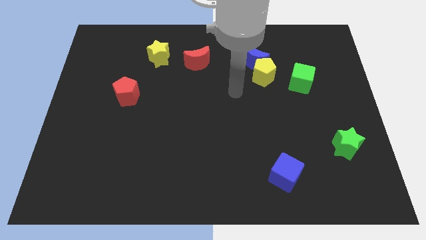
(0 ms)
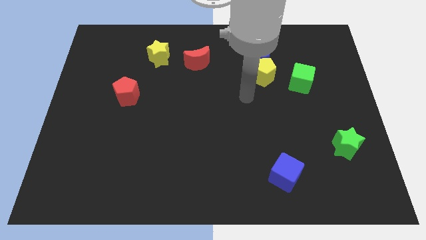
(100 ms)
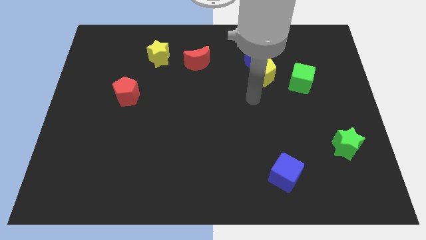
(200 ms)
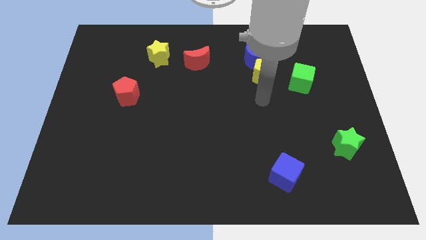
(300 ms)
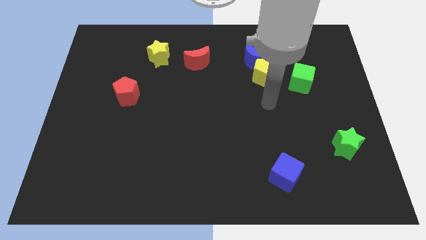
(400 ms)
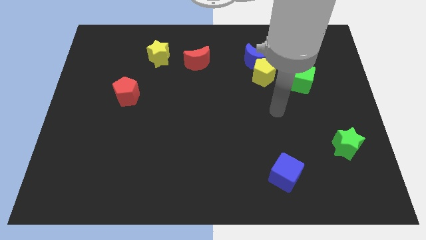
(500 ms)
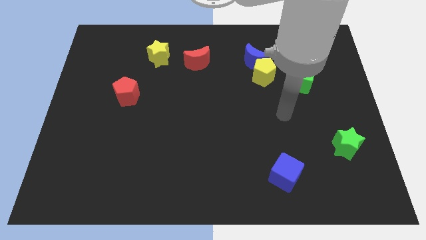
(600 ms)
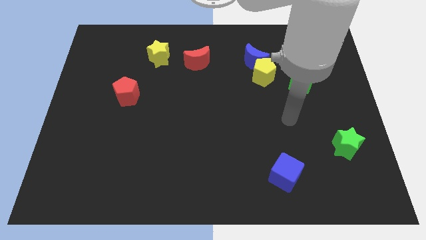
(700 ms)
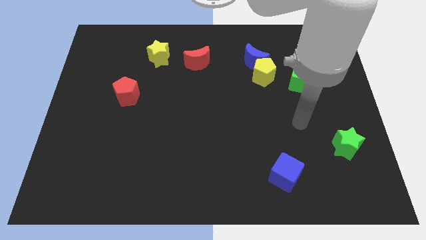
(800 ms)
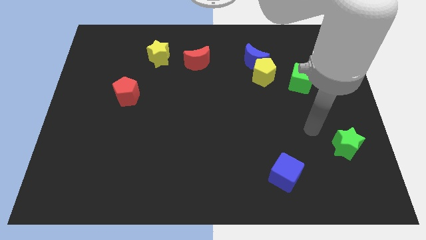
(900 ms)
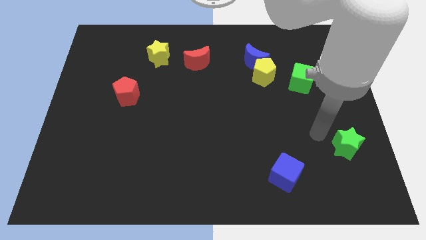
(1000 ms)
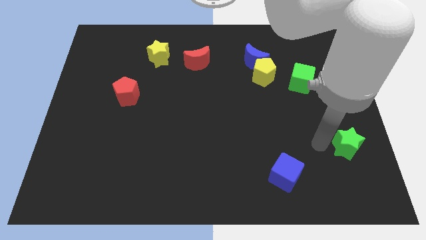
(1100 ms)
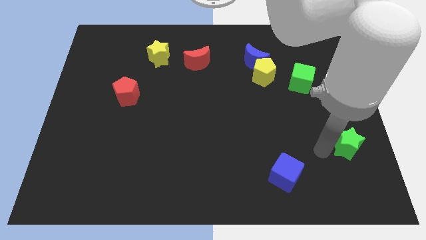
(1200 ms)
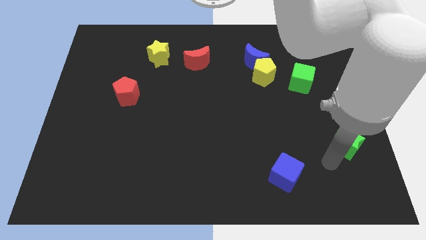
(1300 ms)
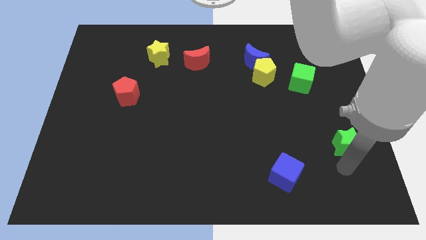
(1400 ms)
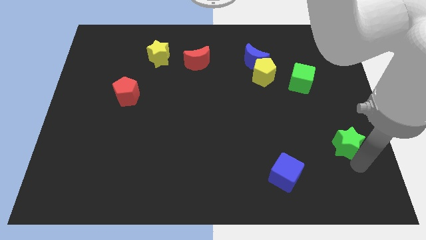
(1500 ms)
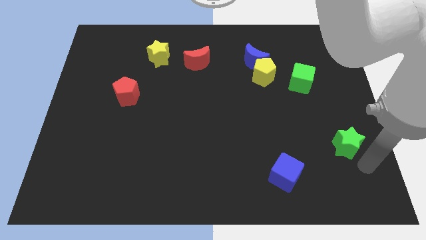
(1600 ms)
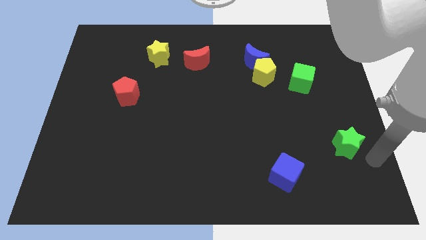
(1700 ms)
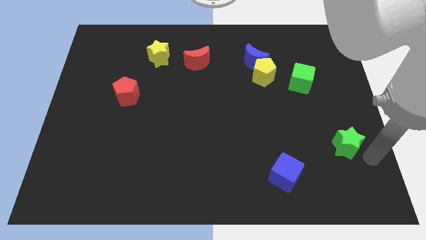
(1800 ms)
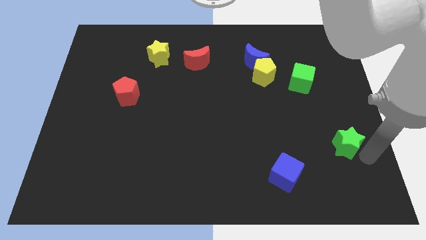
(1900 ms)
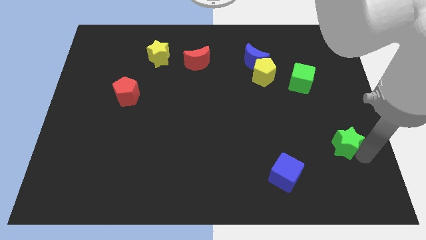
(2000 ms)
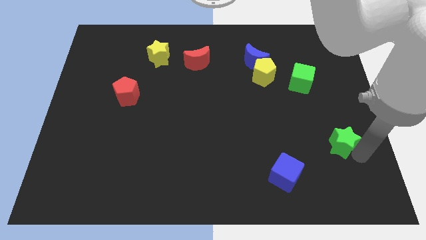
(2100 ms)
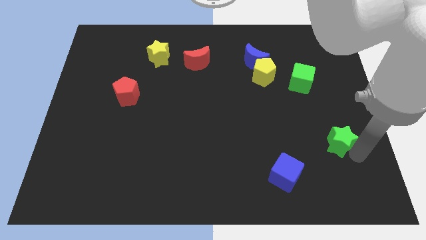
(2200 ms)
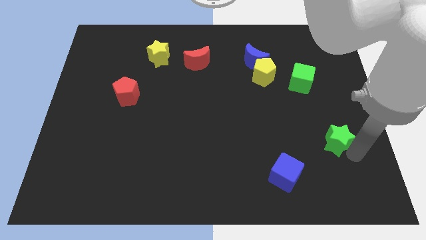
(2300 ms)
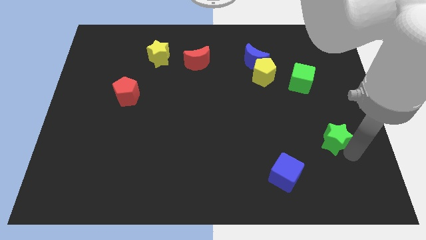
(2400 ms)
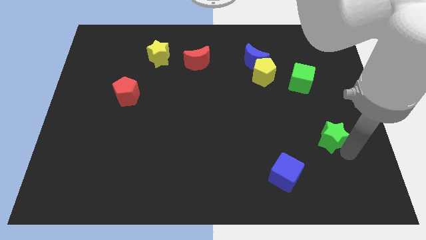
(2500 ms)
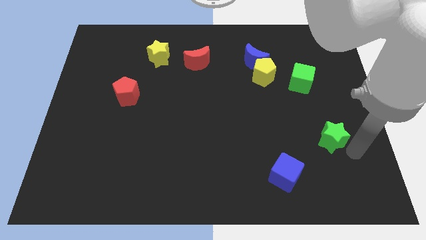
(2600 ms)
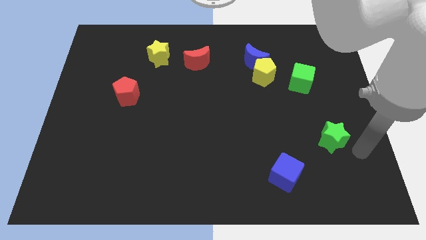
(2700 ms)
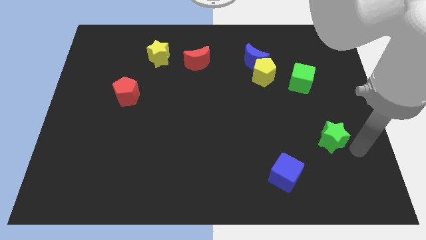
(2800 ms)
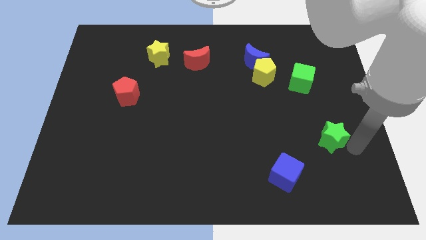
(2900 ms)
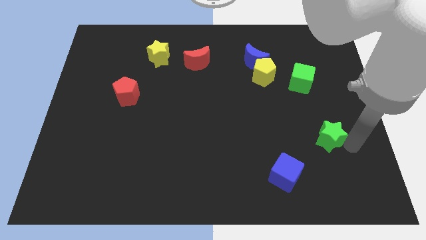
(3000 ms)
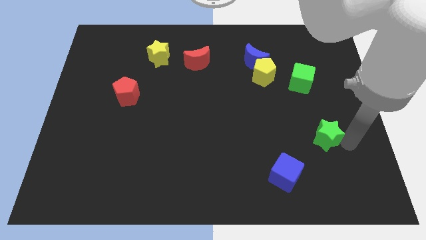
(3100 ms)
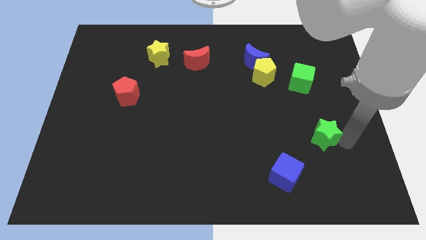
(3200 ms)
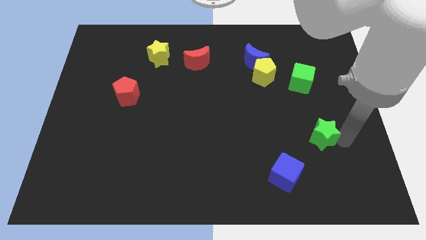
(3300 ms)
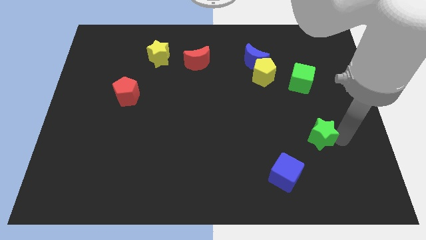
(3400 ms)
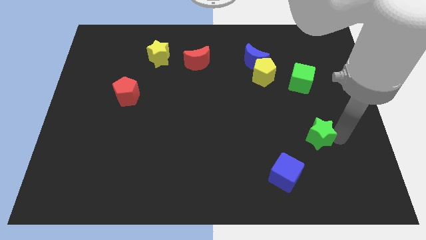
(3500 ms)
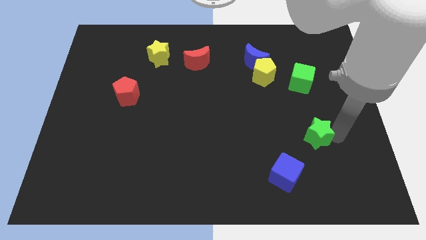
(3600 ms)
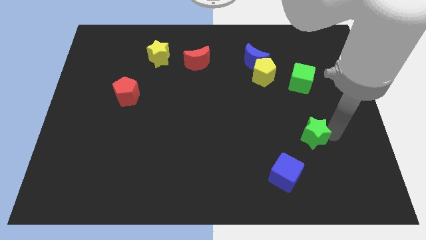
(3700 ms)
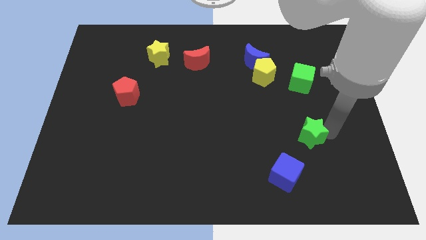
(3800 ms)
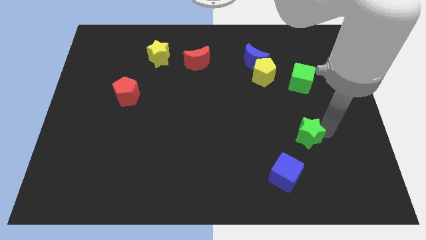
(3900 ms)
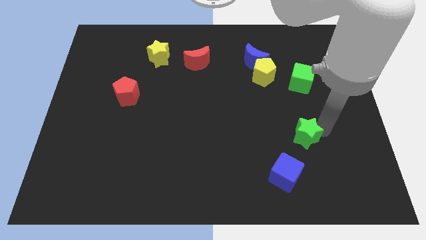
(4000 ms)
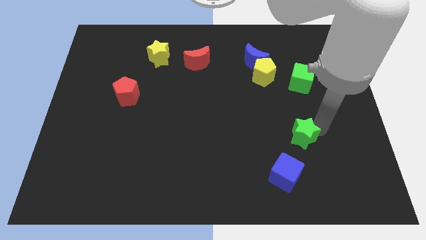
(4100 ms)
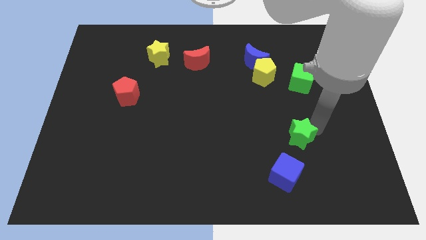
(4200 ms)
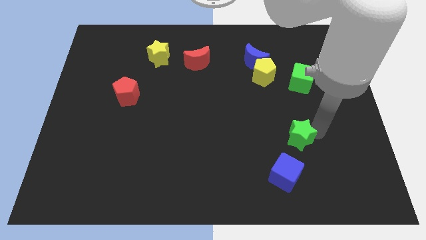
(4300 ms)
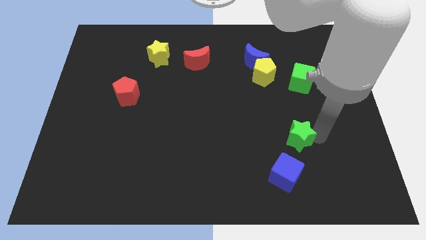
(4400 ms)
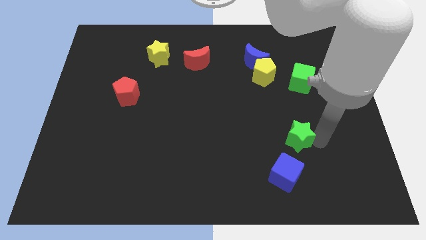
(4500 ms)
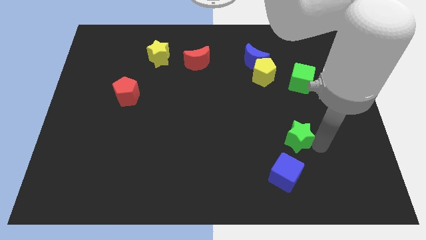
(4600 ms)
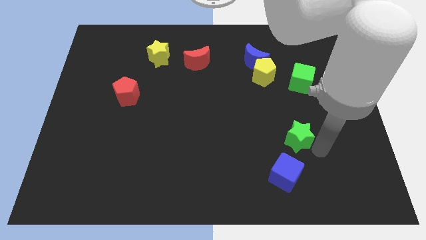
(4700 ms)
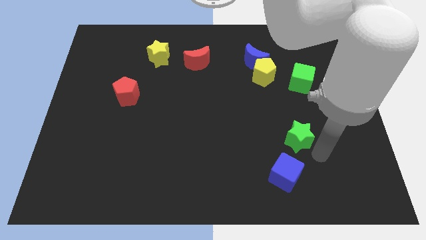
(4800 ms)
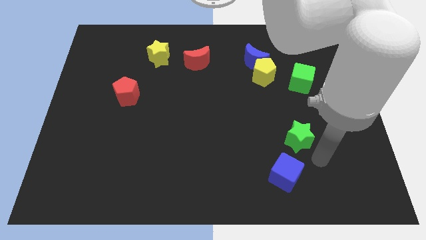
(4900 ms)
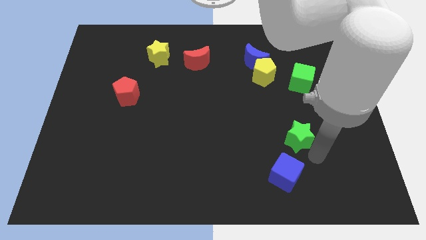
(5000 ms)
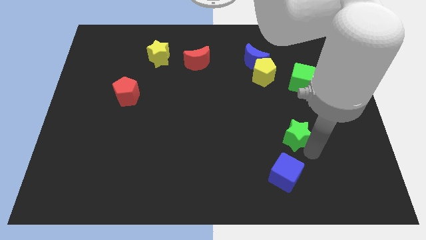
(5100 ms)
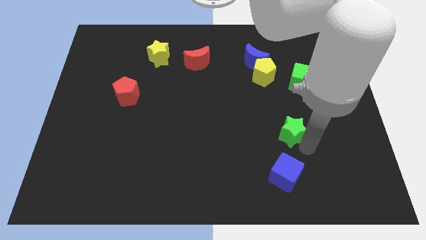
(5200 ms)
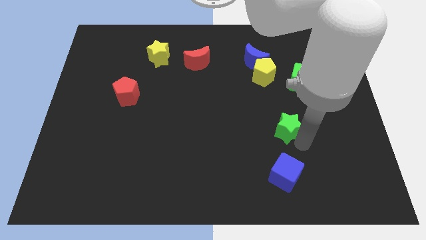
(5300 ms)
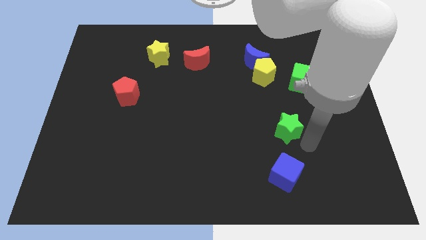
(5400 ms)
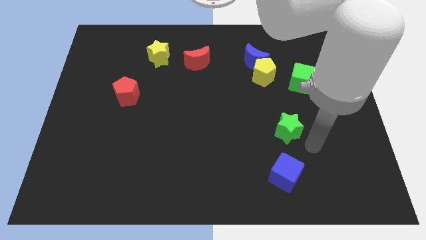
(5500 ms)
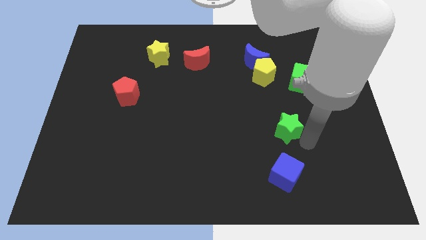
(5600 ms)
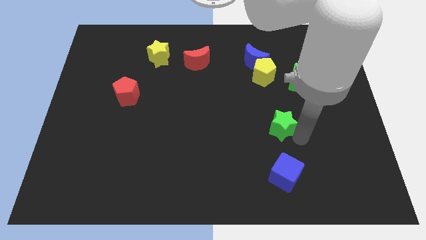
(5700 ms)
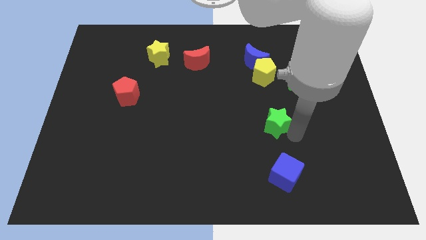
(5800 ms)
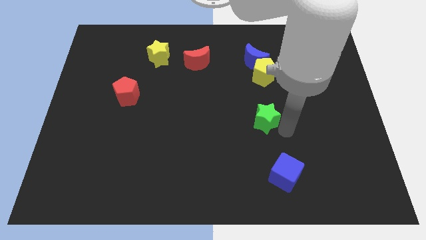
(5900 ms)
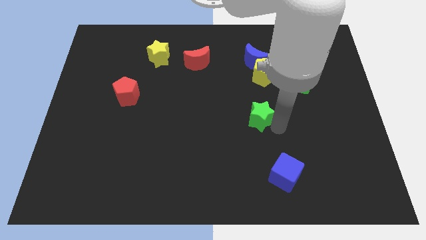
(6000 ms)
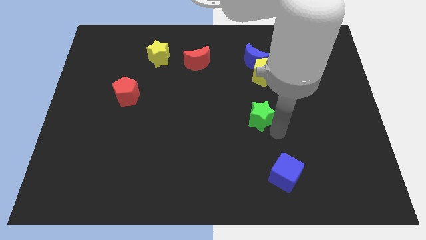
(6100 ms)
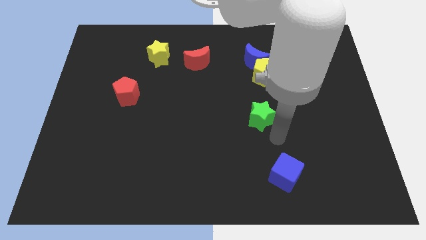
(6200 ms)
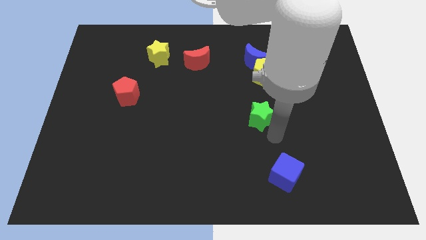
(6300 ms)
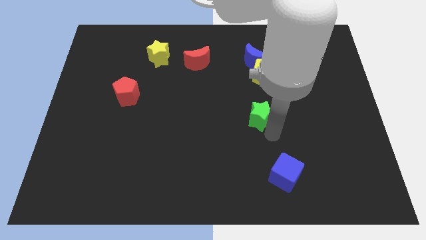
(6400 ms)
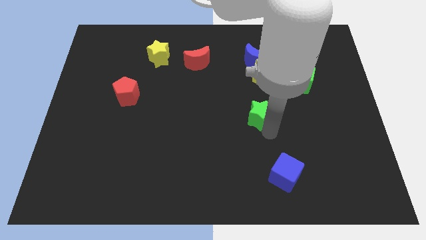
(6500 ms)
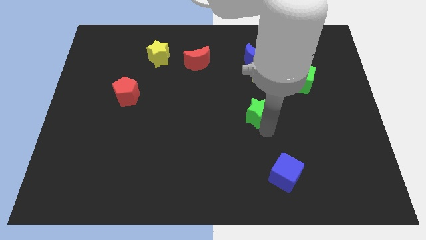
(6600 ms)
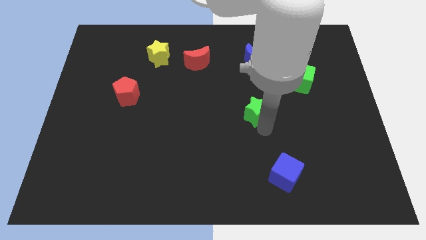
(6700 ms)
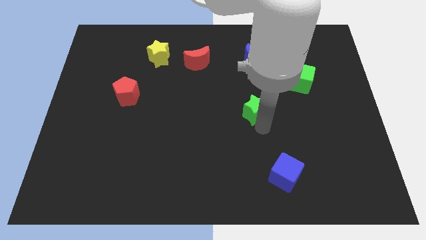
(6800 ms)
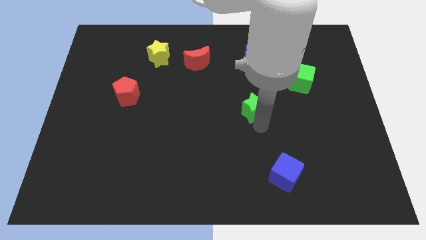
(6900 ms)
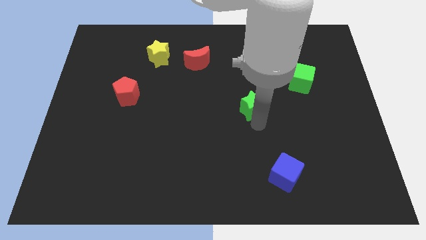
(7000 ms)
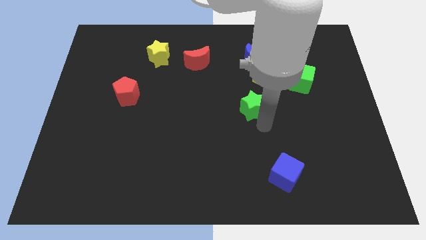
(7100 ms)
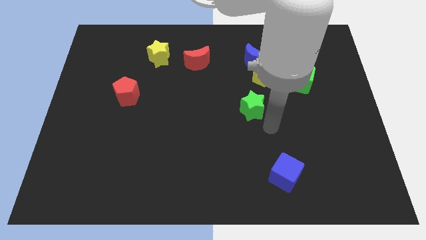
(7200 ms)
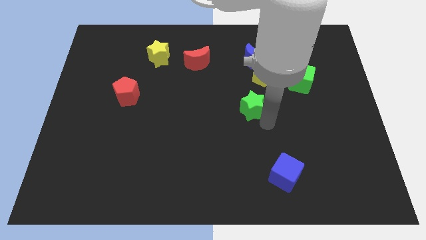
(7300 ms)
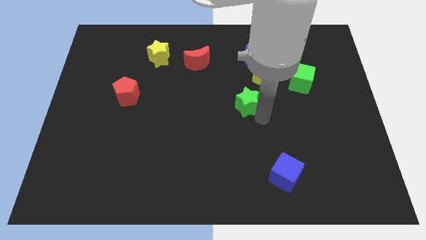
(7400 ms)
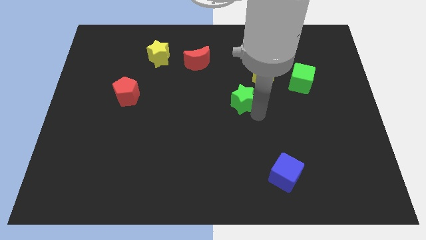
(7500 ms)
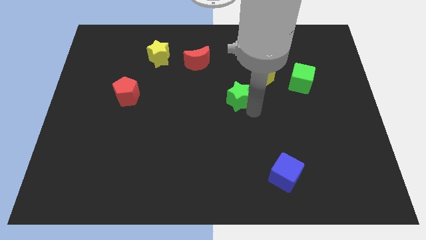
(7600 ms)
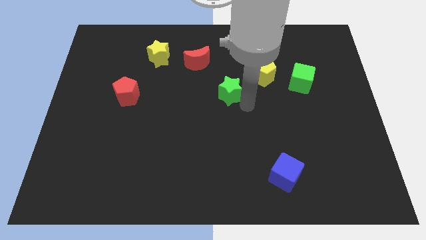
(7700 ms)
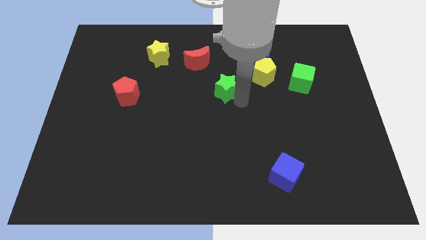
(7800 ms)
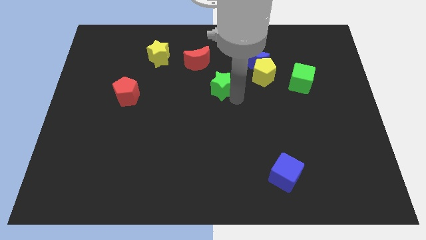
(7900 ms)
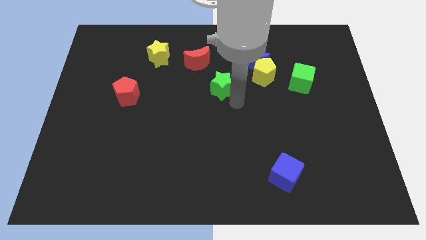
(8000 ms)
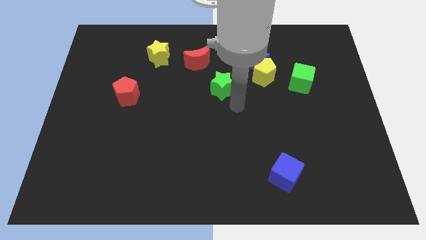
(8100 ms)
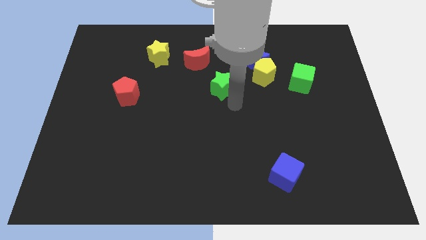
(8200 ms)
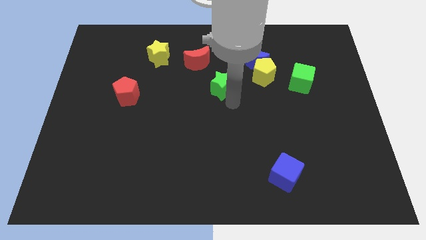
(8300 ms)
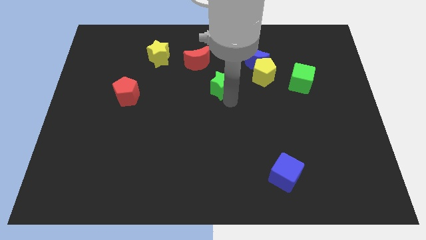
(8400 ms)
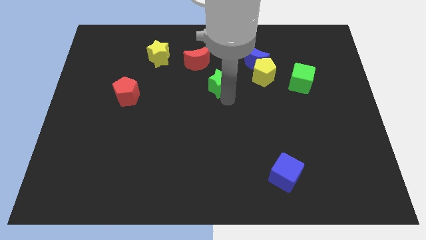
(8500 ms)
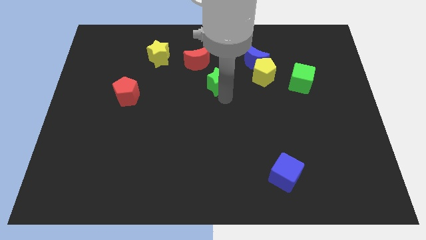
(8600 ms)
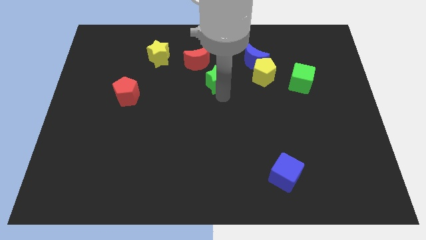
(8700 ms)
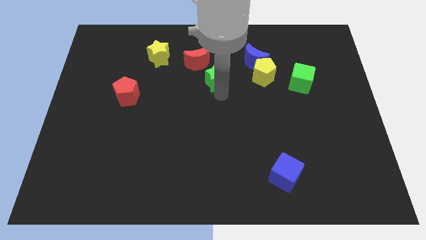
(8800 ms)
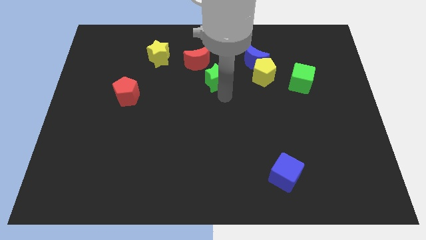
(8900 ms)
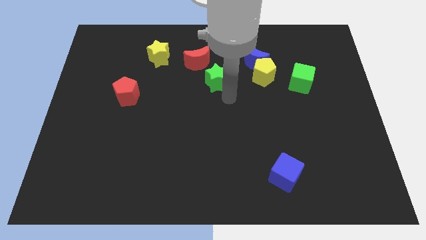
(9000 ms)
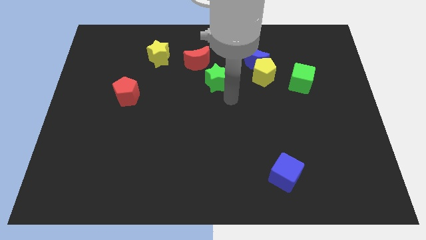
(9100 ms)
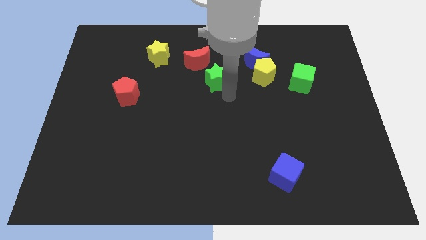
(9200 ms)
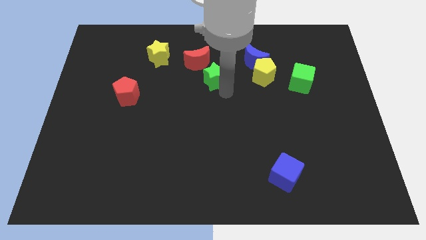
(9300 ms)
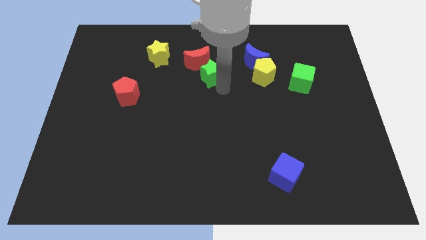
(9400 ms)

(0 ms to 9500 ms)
put the green star next to the red moon
